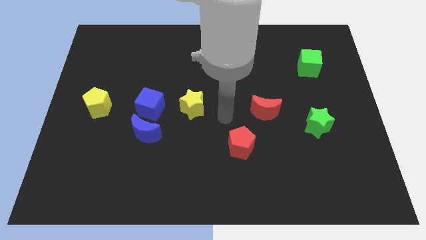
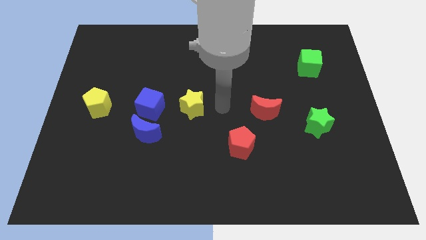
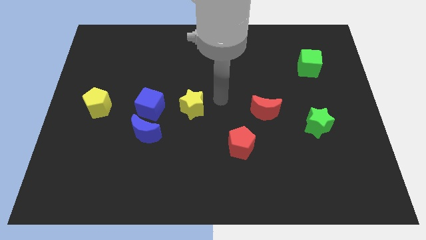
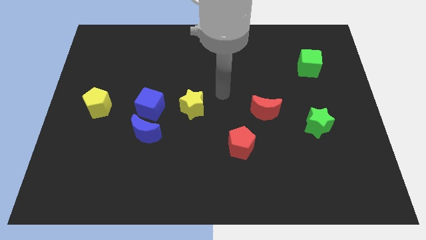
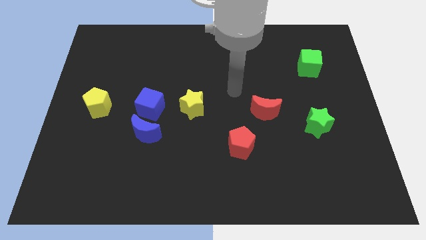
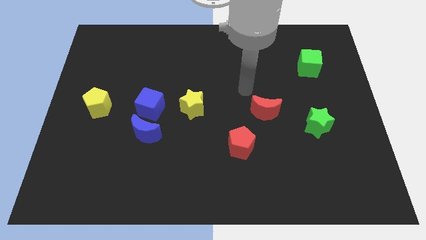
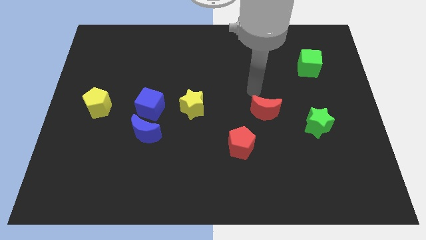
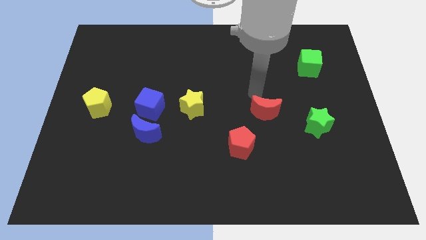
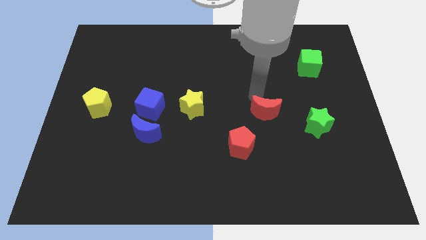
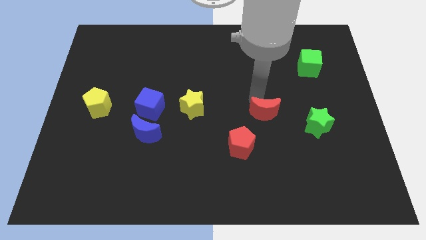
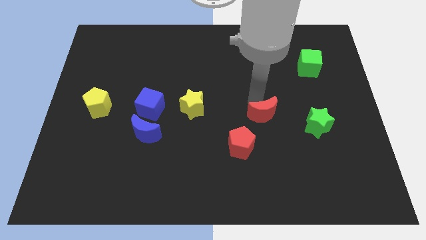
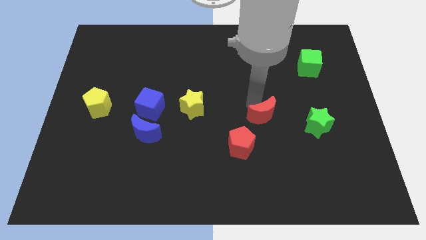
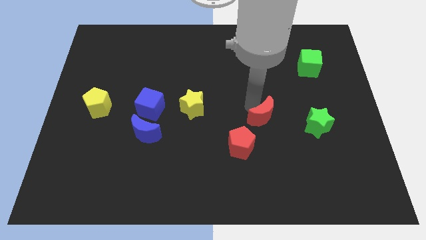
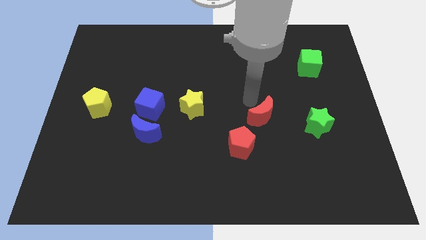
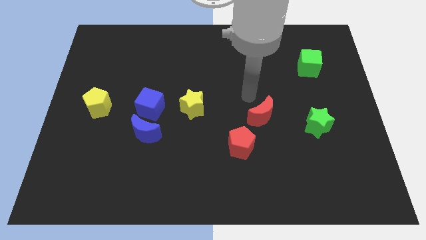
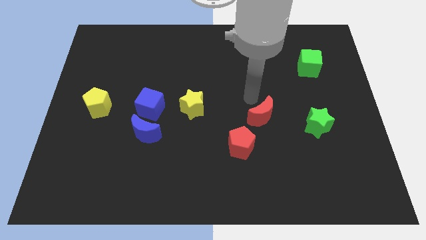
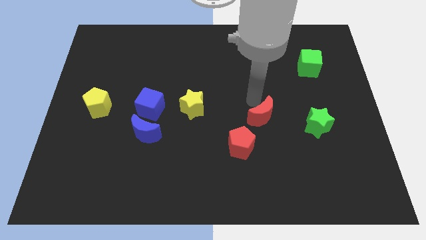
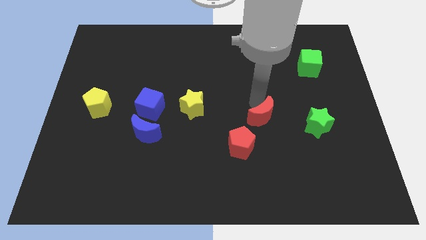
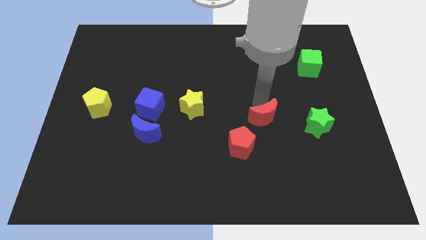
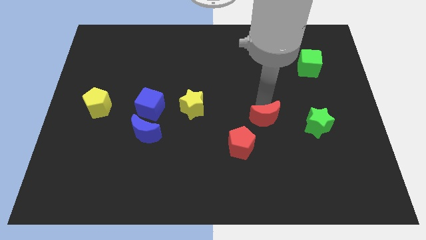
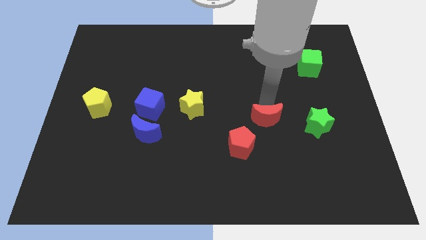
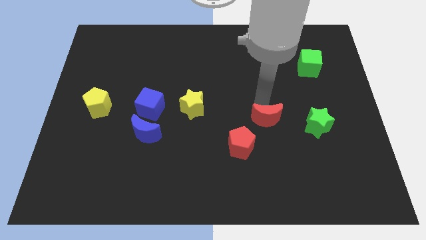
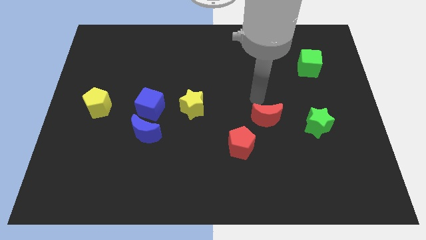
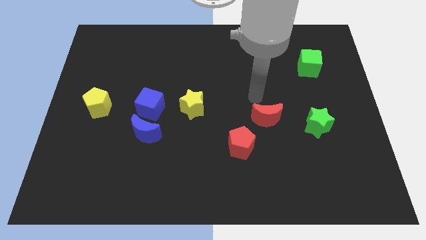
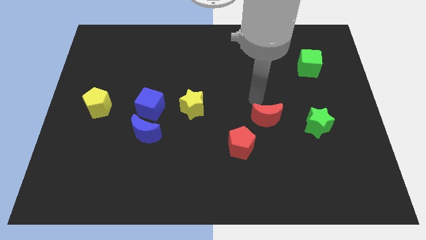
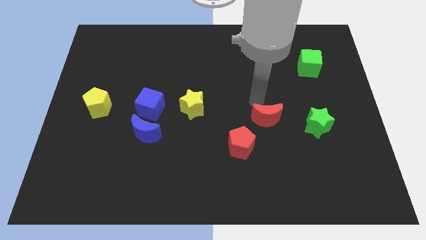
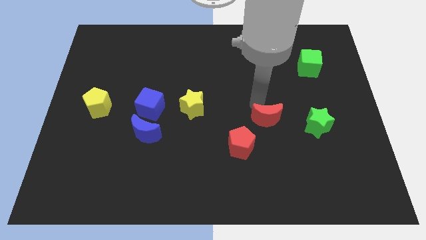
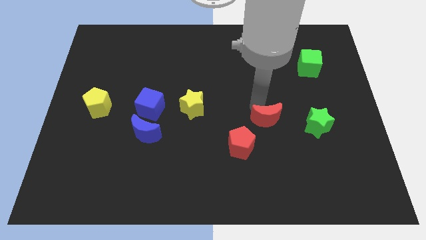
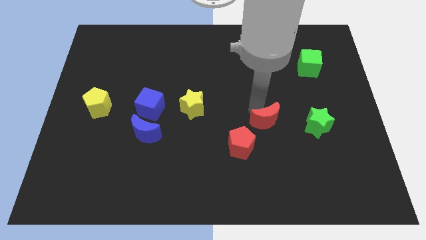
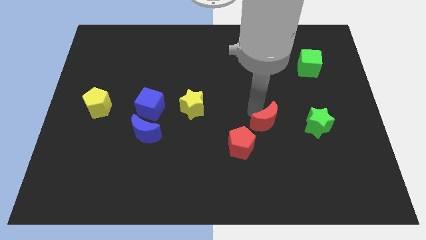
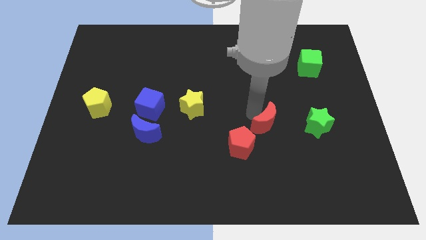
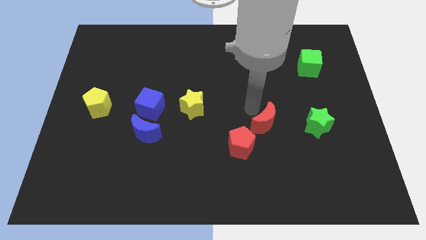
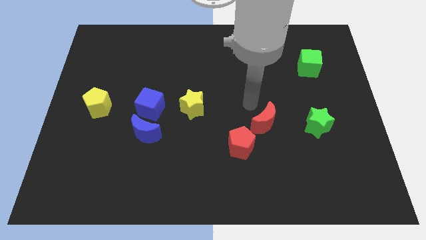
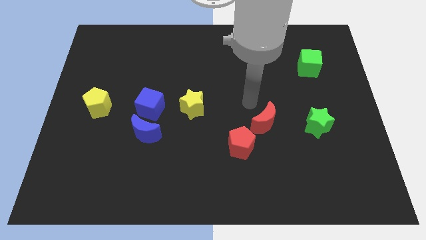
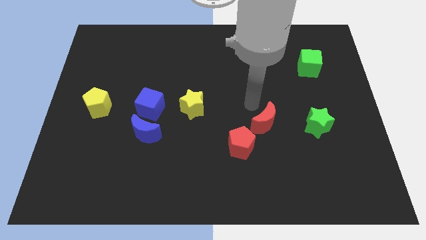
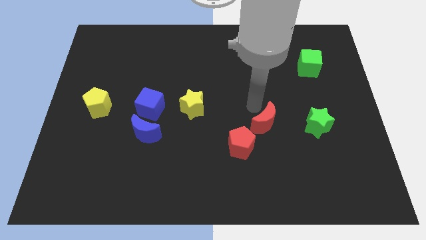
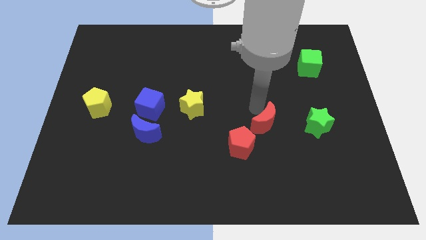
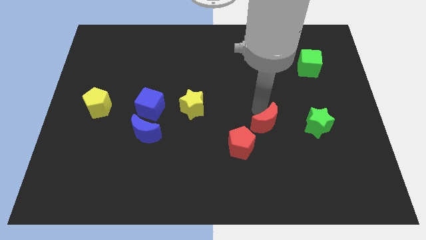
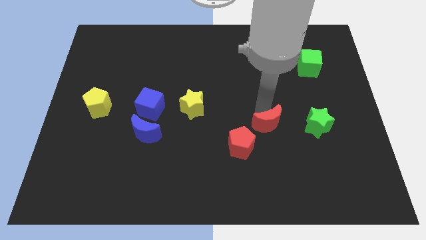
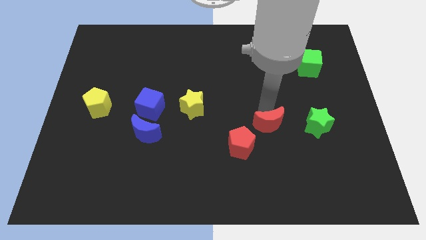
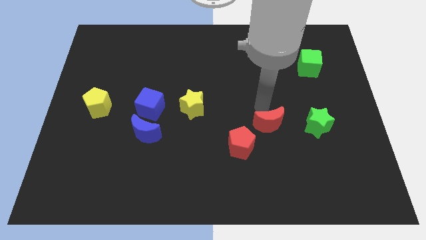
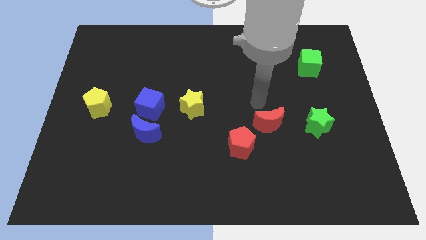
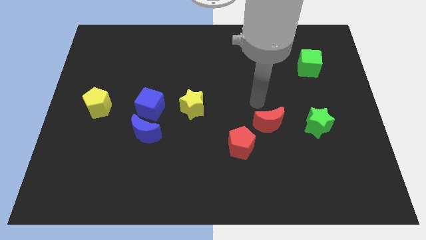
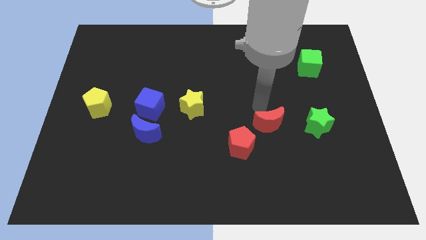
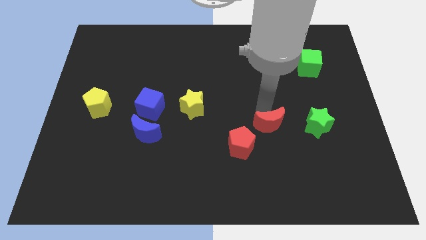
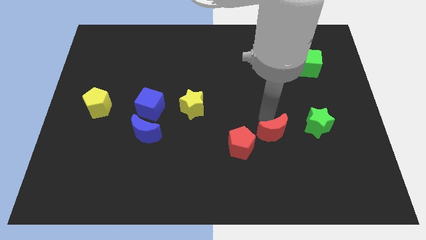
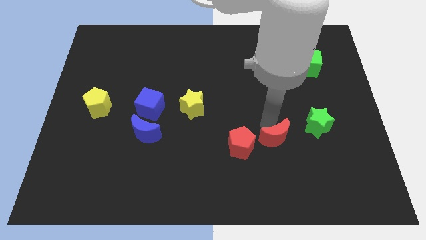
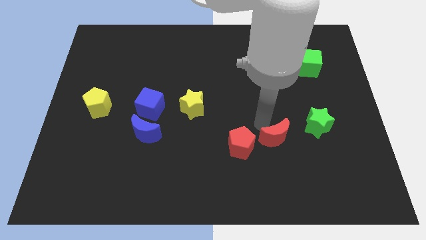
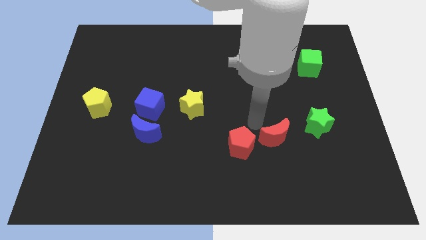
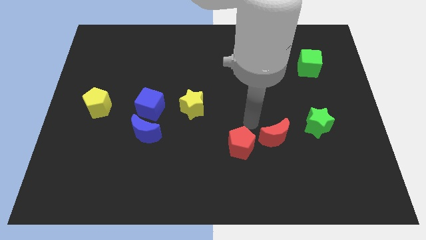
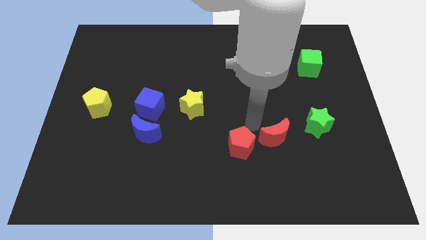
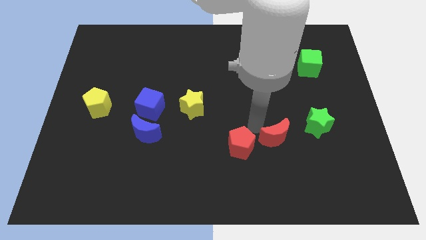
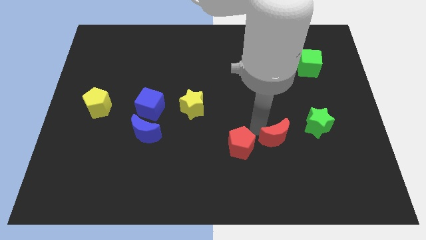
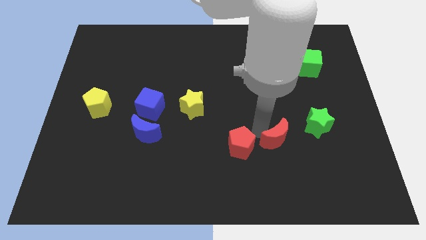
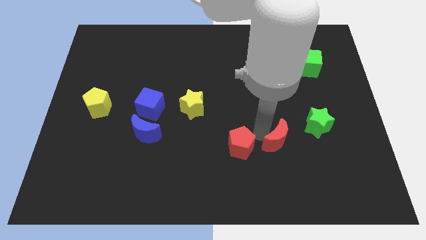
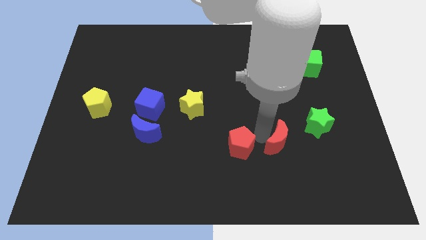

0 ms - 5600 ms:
push the red moon a little bit down and right diagonally

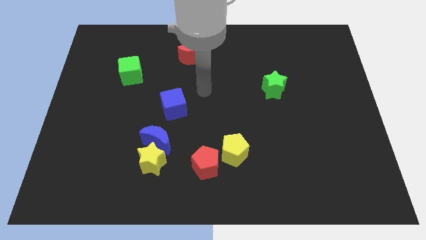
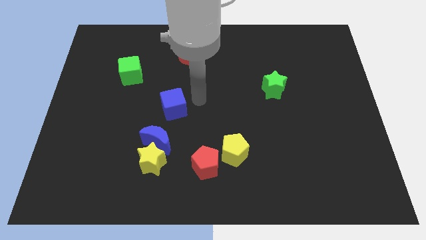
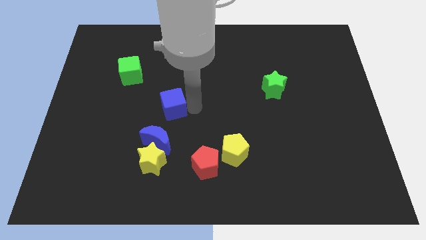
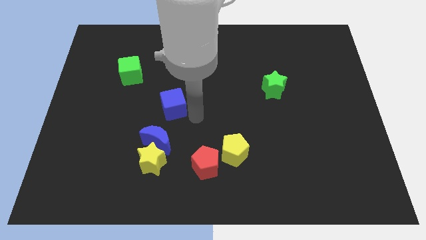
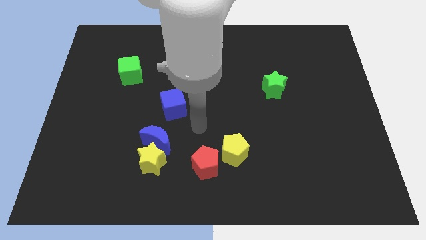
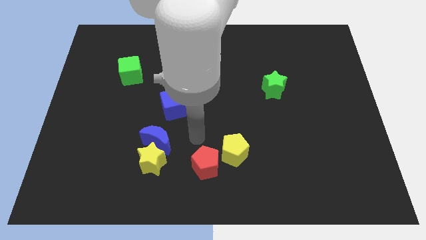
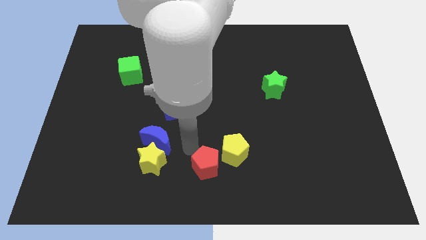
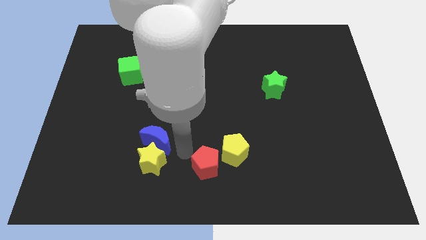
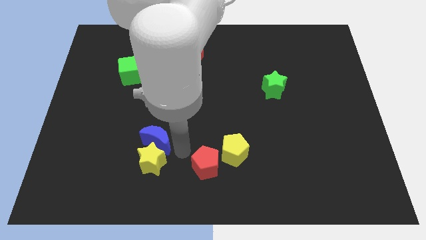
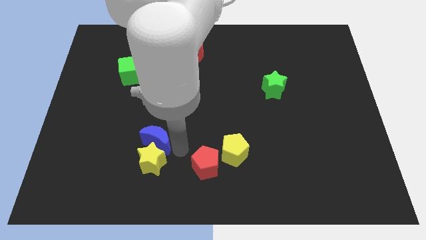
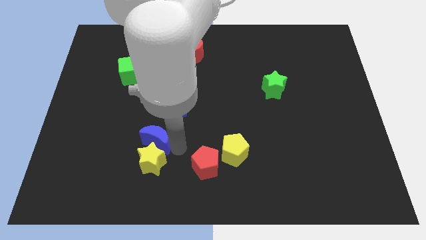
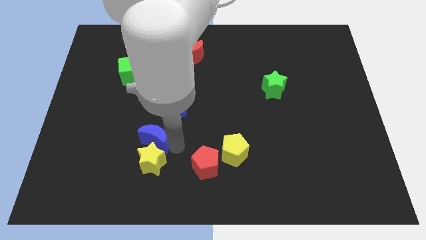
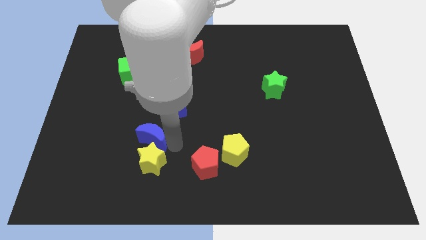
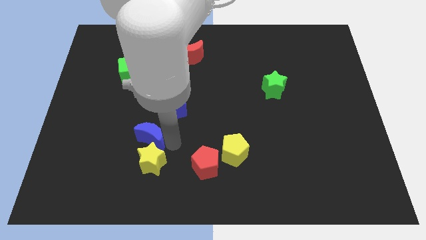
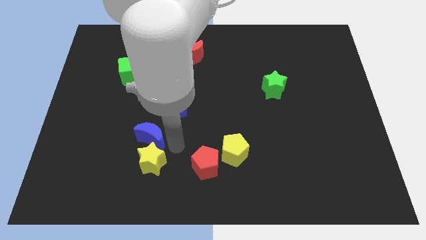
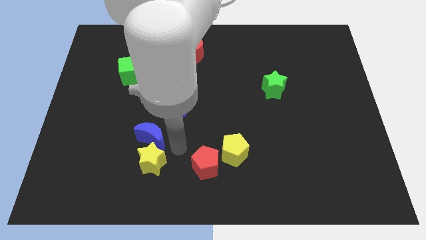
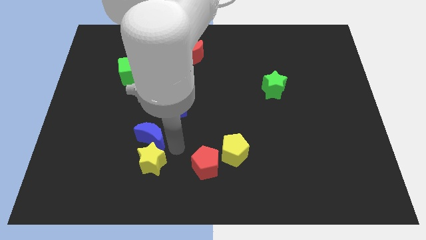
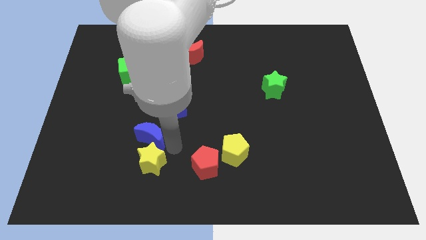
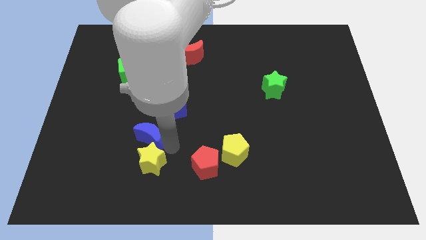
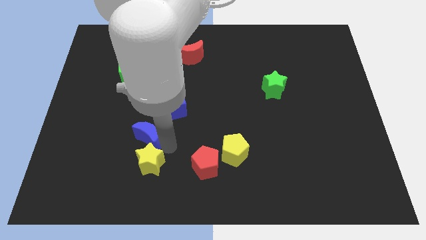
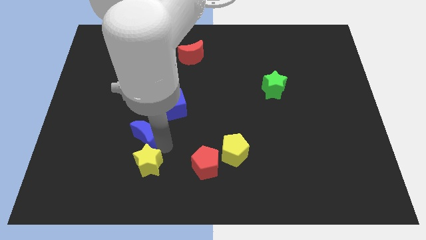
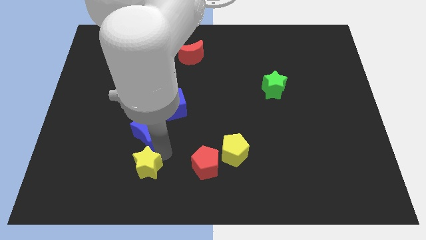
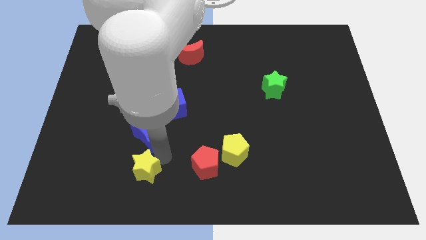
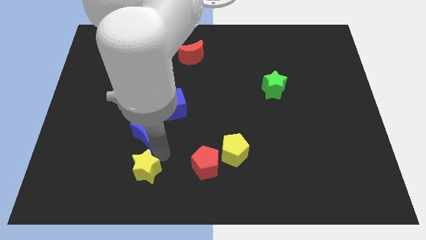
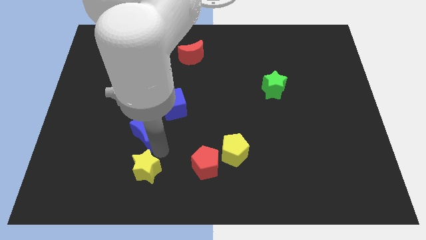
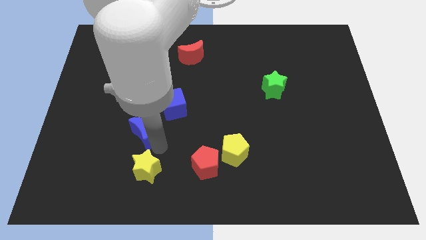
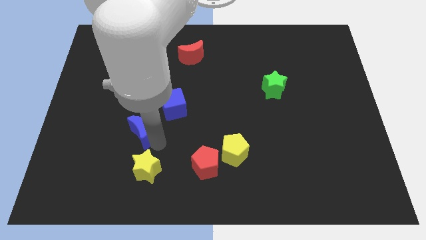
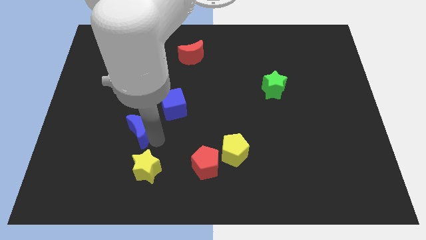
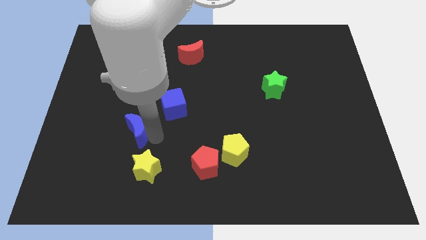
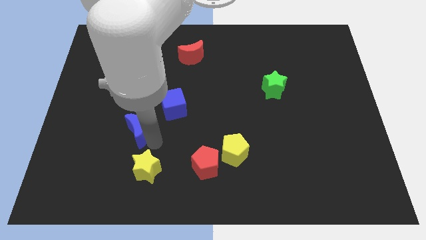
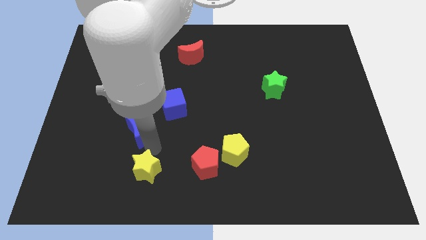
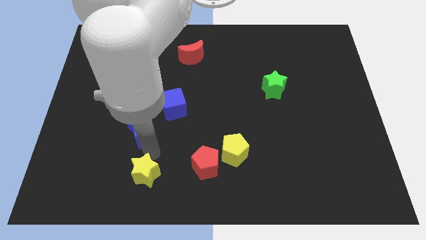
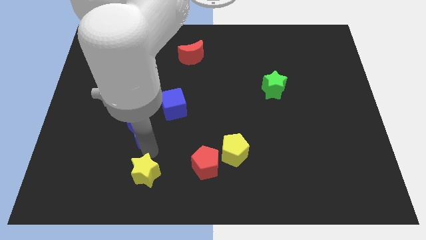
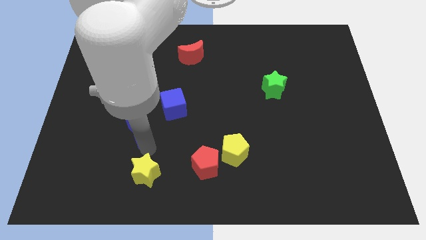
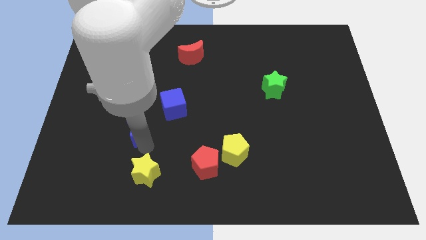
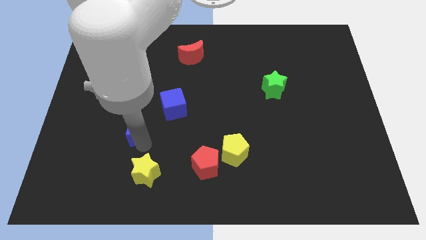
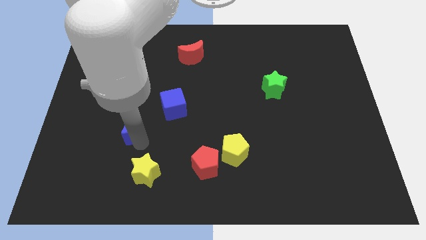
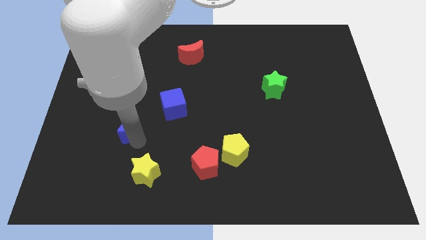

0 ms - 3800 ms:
slide the blue moon slightly upwards and to the left diagonally
